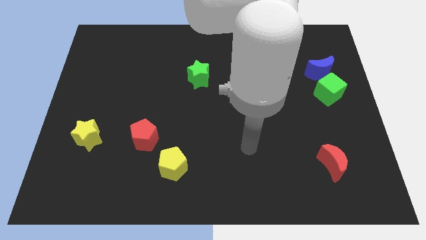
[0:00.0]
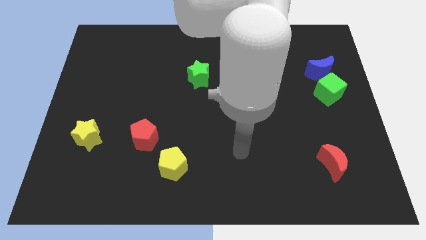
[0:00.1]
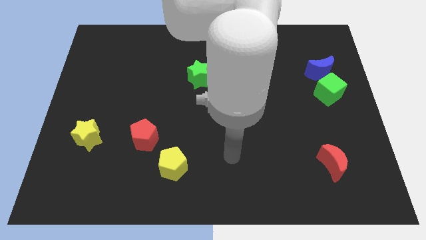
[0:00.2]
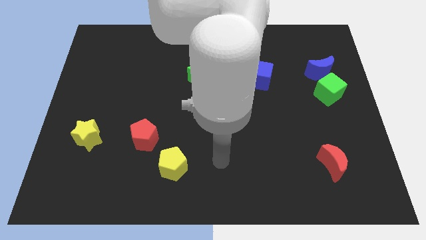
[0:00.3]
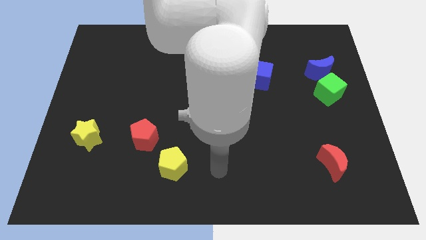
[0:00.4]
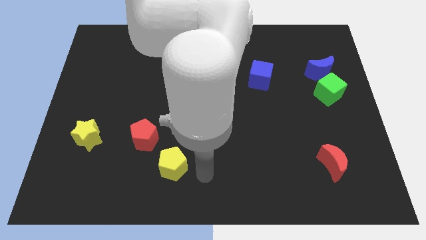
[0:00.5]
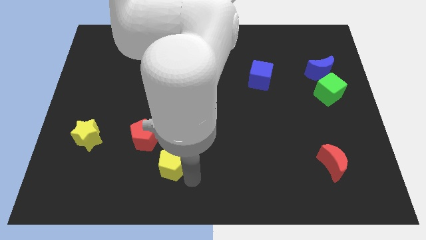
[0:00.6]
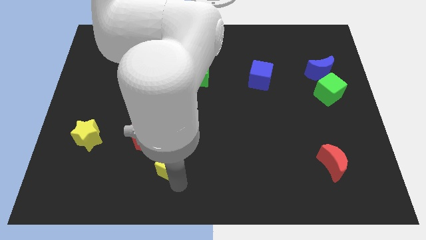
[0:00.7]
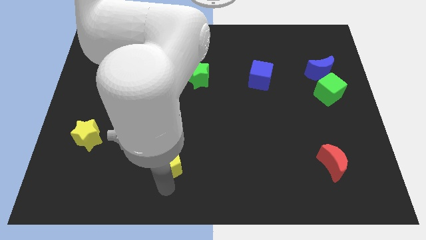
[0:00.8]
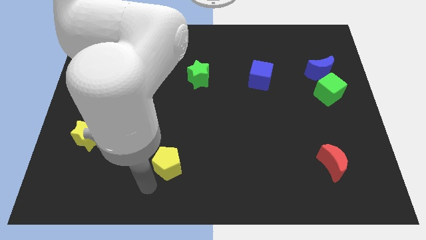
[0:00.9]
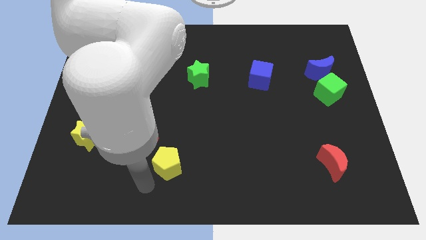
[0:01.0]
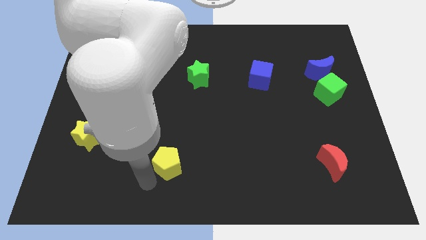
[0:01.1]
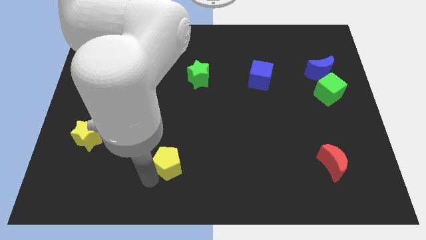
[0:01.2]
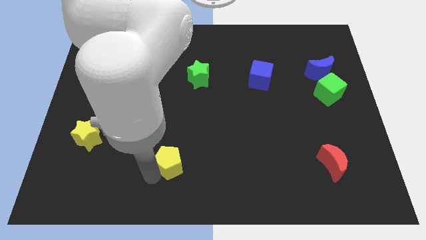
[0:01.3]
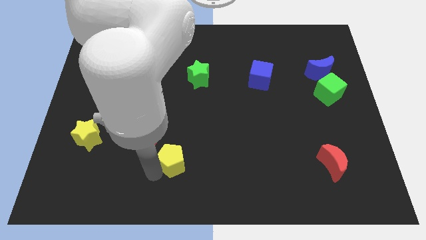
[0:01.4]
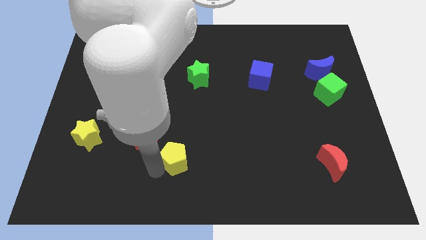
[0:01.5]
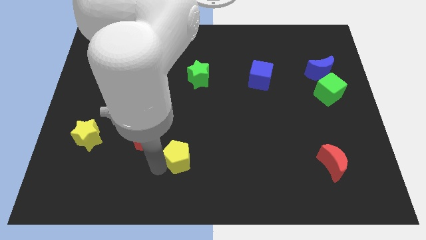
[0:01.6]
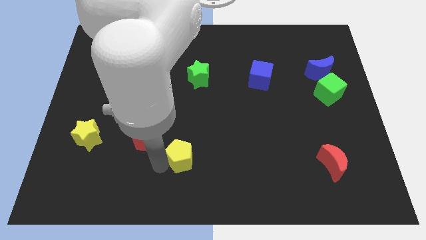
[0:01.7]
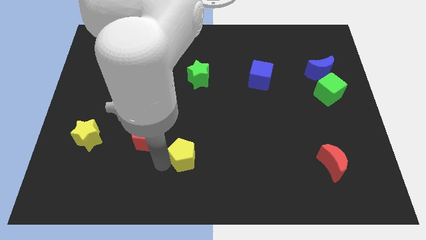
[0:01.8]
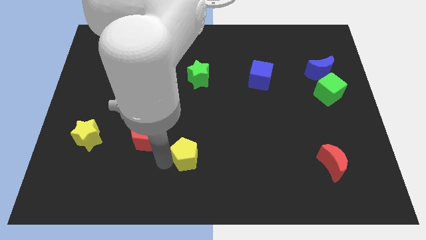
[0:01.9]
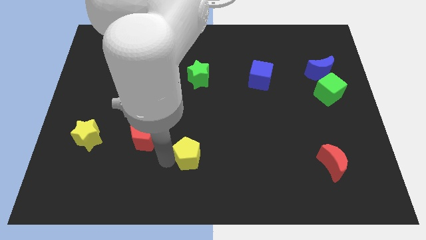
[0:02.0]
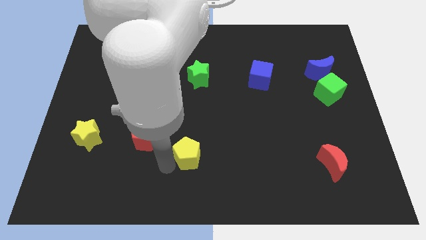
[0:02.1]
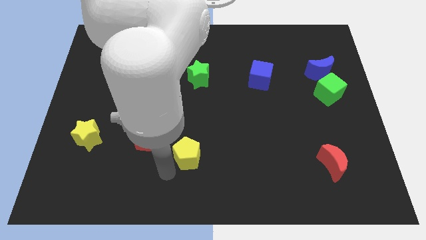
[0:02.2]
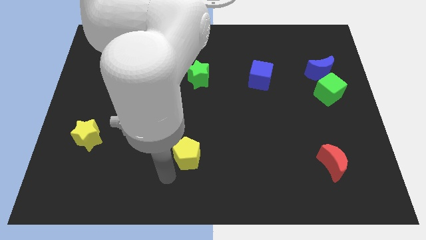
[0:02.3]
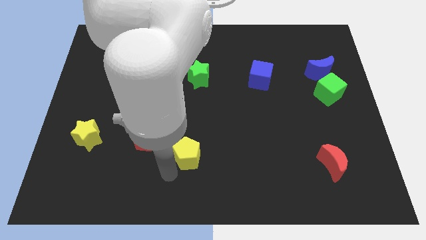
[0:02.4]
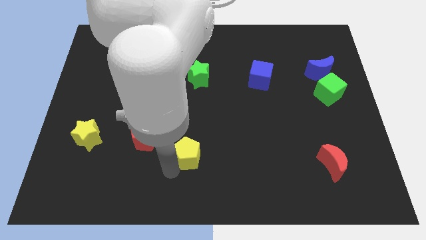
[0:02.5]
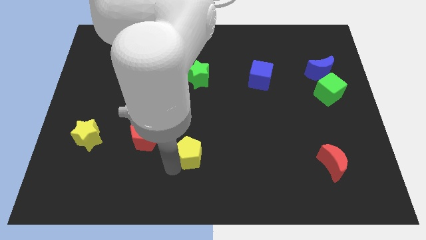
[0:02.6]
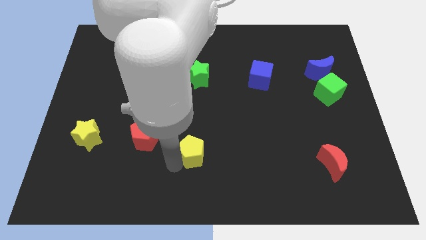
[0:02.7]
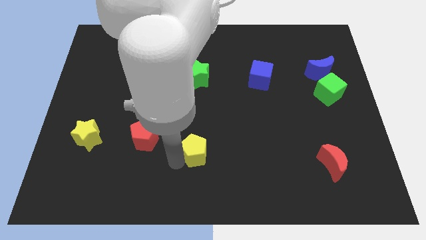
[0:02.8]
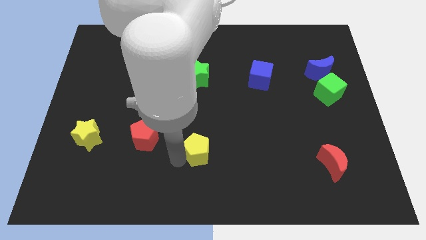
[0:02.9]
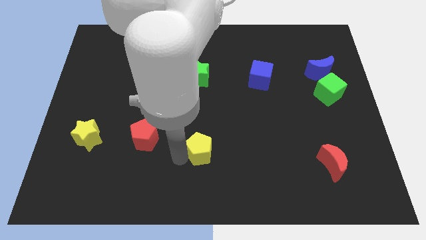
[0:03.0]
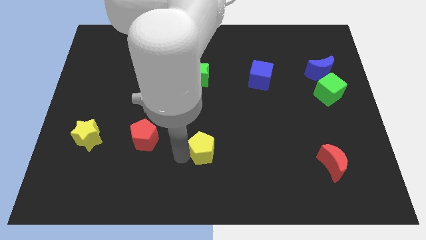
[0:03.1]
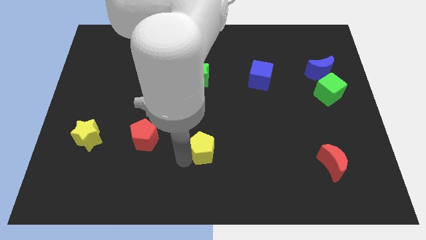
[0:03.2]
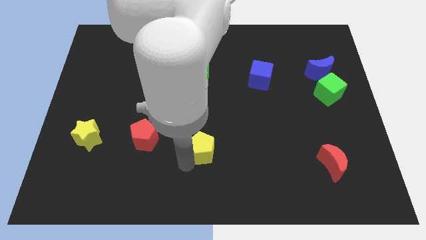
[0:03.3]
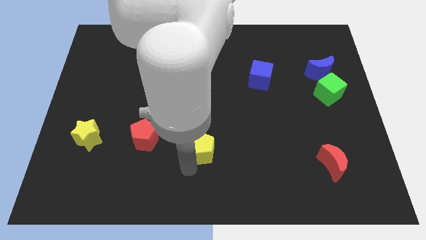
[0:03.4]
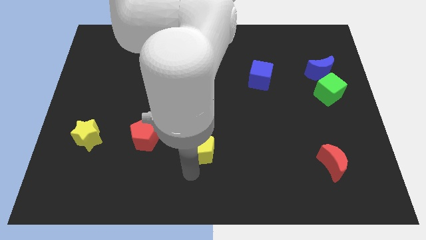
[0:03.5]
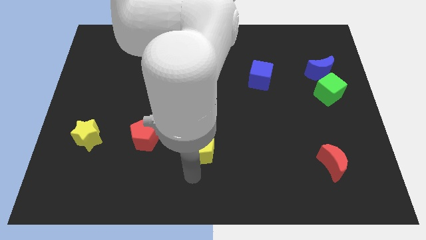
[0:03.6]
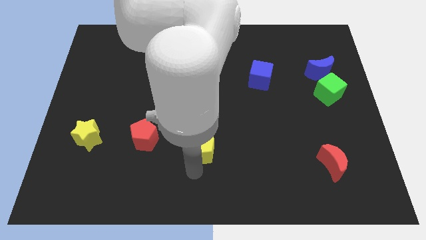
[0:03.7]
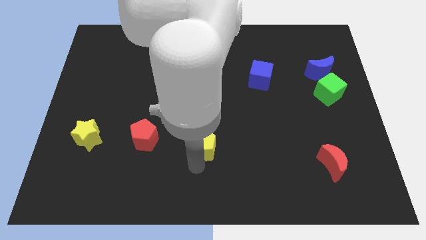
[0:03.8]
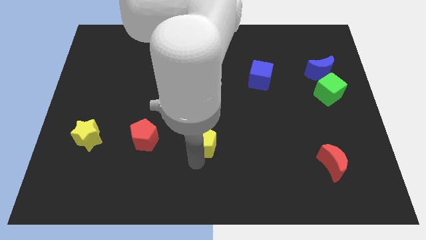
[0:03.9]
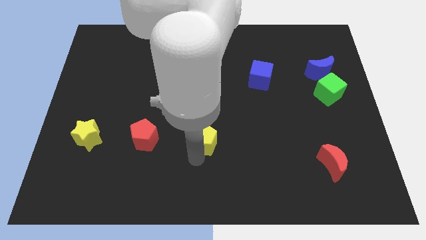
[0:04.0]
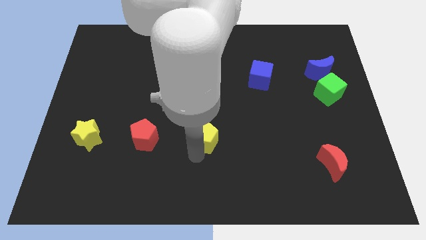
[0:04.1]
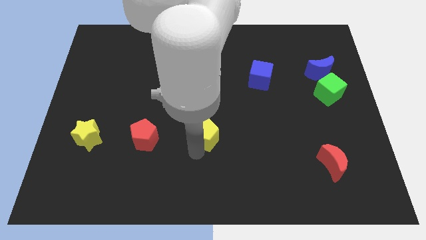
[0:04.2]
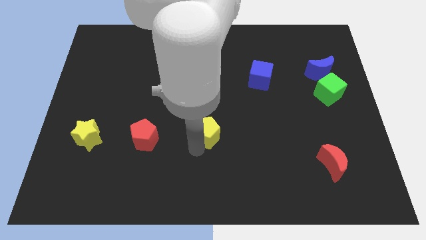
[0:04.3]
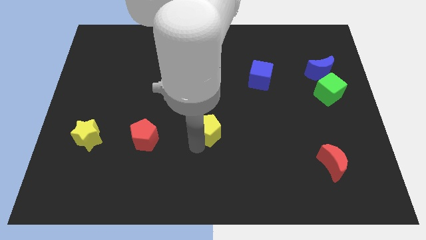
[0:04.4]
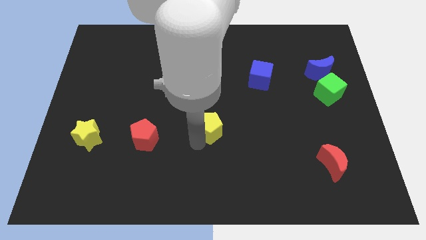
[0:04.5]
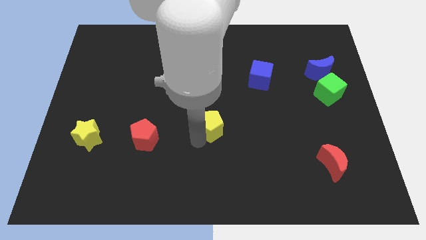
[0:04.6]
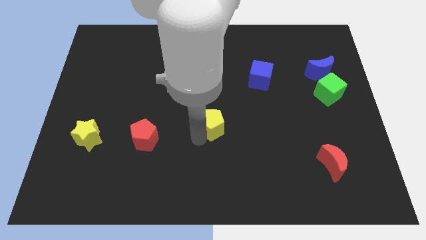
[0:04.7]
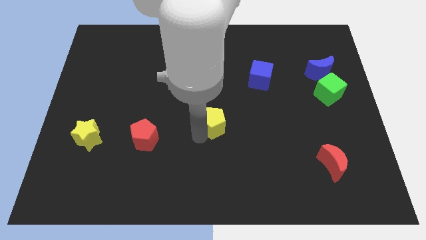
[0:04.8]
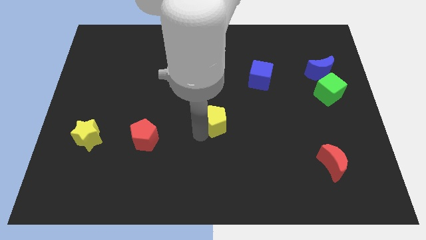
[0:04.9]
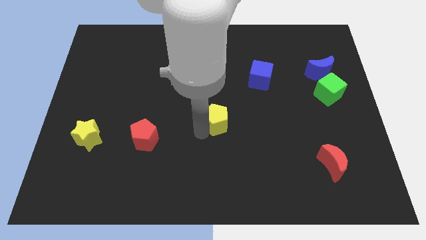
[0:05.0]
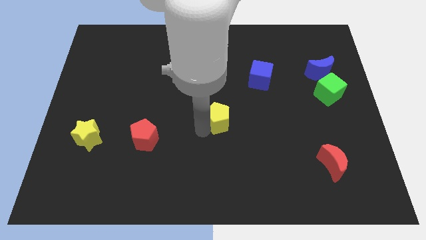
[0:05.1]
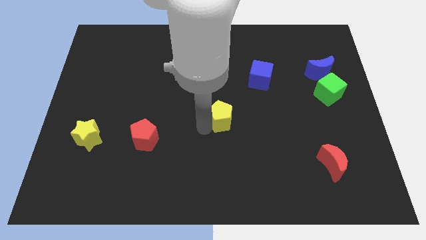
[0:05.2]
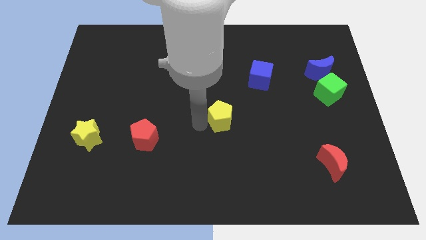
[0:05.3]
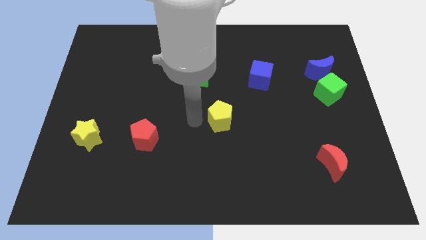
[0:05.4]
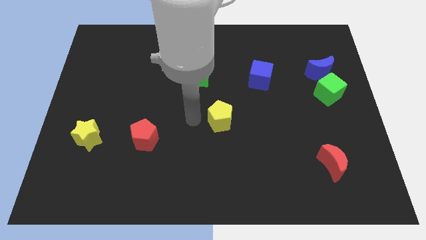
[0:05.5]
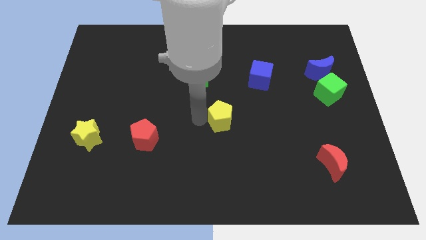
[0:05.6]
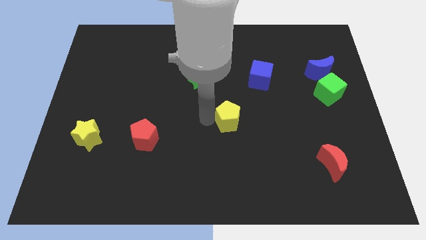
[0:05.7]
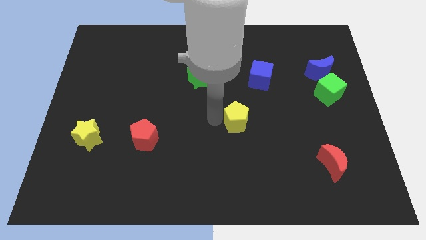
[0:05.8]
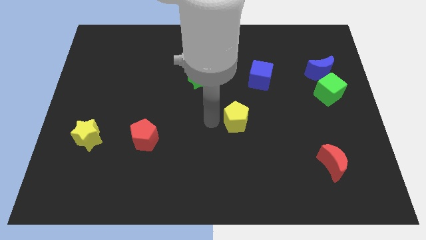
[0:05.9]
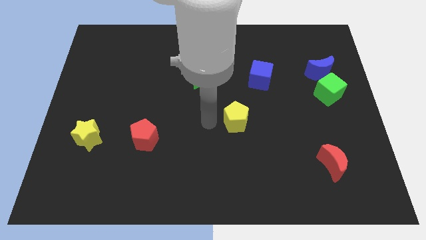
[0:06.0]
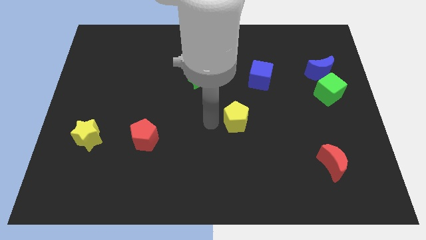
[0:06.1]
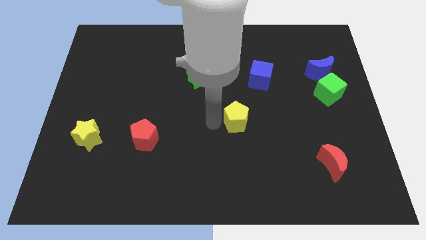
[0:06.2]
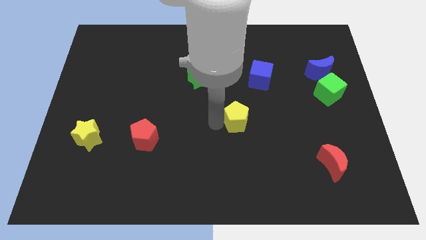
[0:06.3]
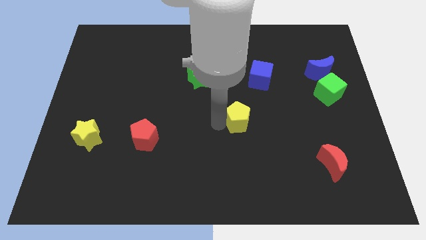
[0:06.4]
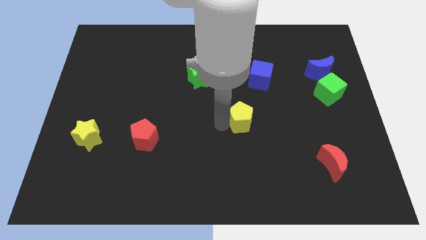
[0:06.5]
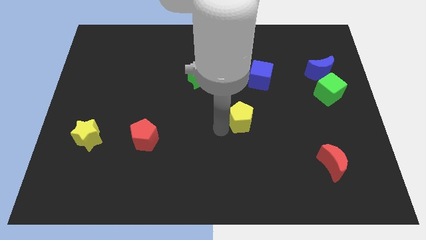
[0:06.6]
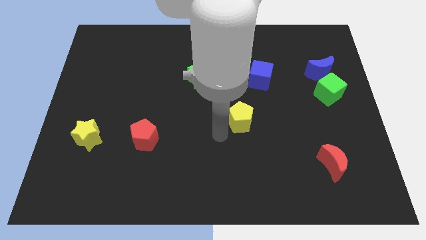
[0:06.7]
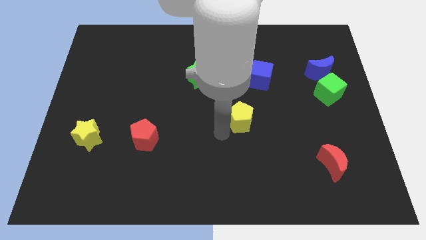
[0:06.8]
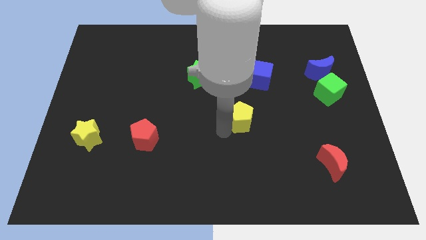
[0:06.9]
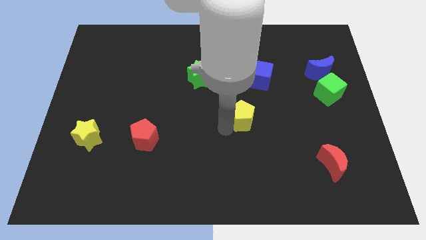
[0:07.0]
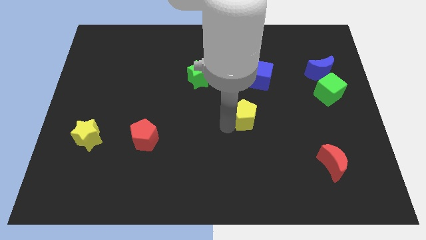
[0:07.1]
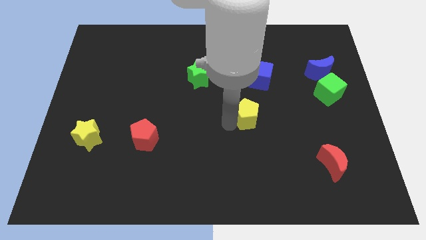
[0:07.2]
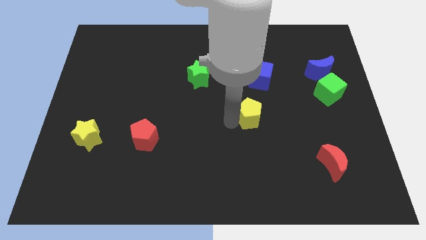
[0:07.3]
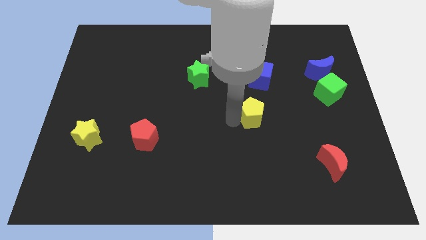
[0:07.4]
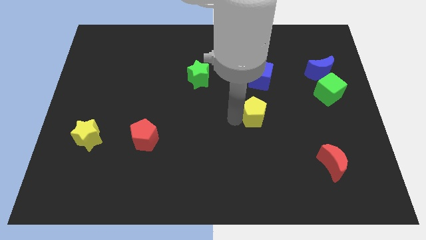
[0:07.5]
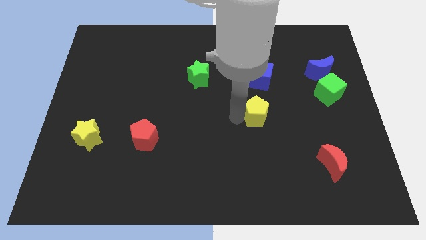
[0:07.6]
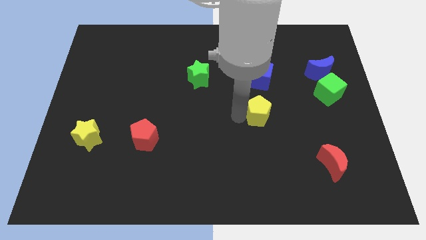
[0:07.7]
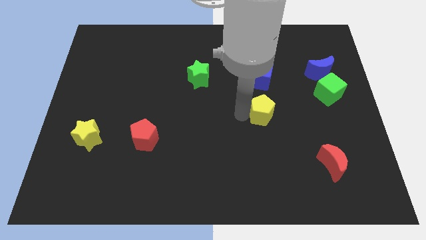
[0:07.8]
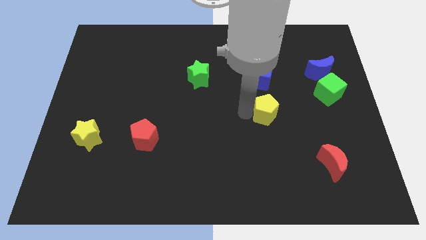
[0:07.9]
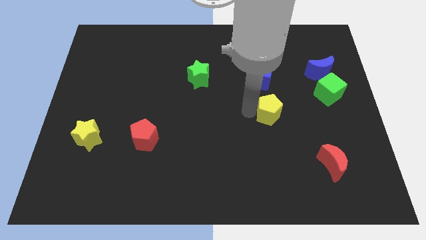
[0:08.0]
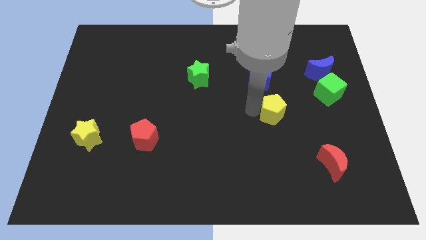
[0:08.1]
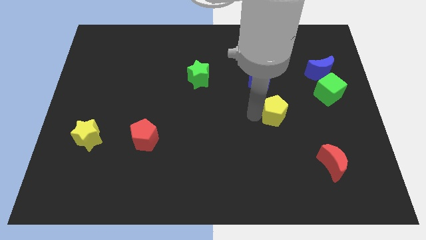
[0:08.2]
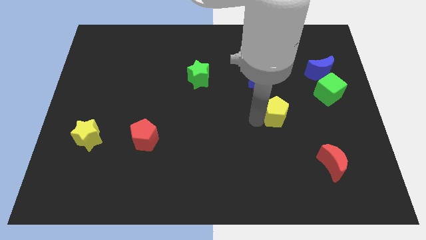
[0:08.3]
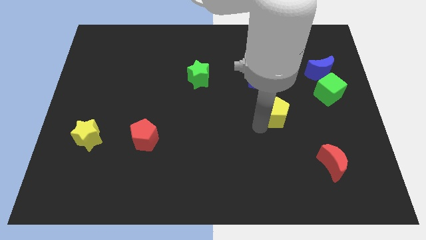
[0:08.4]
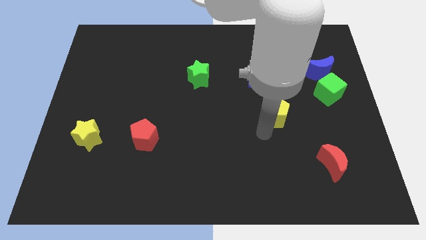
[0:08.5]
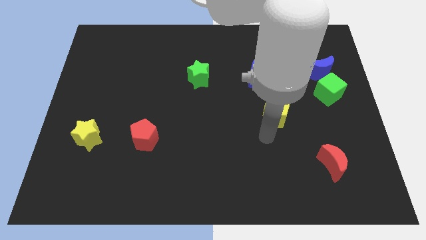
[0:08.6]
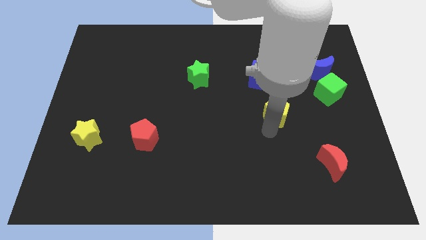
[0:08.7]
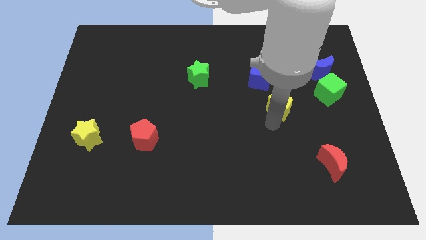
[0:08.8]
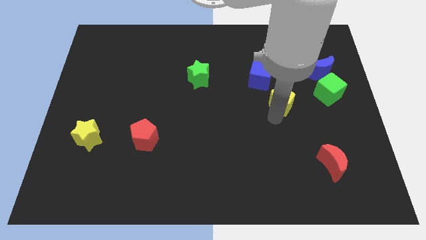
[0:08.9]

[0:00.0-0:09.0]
slide the yellow pentagon to the left of the green cube
